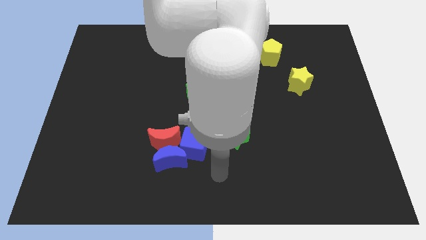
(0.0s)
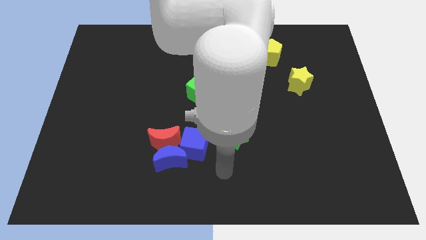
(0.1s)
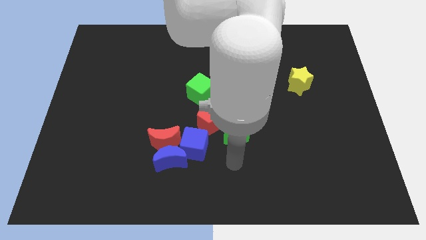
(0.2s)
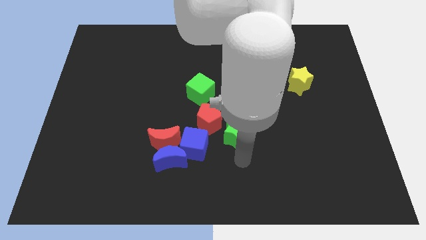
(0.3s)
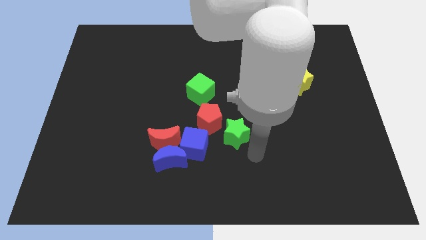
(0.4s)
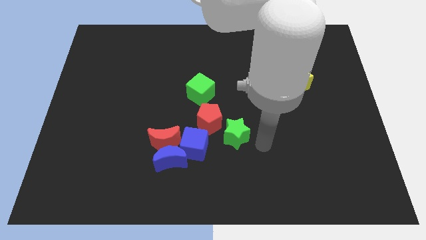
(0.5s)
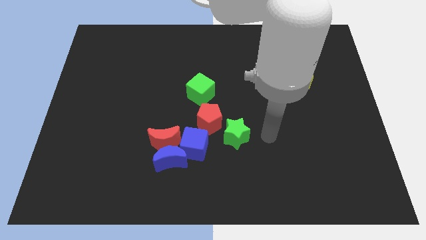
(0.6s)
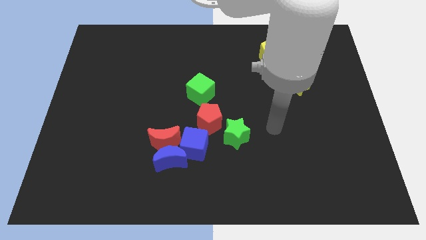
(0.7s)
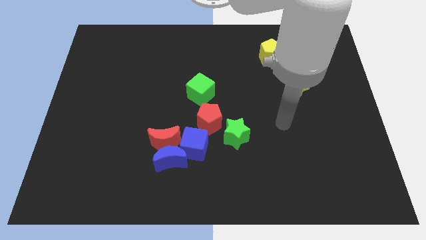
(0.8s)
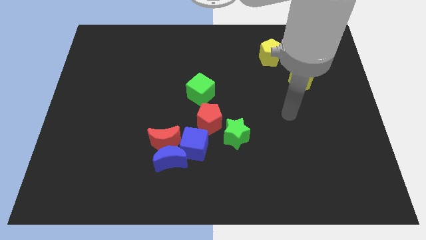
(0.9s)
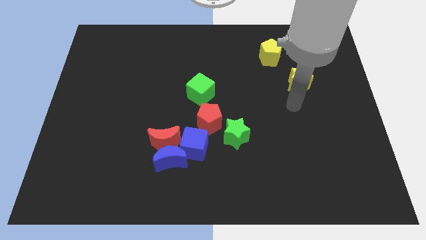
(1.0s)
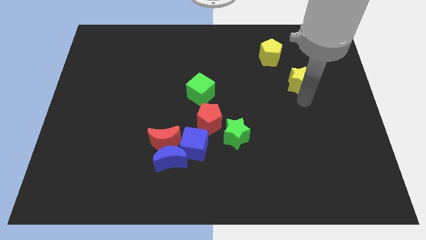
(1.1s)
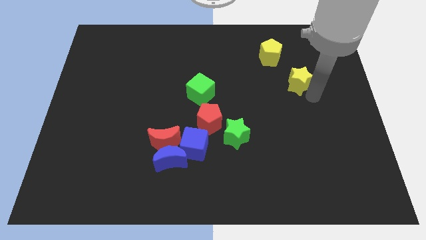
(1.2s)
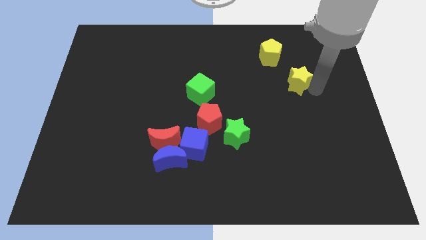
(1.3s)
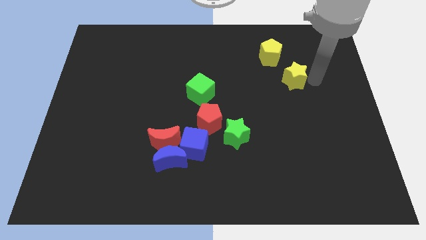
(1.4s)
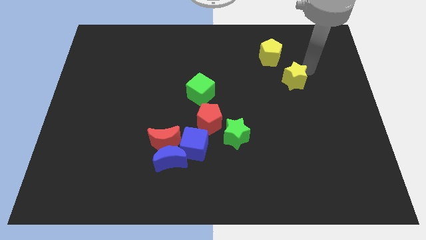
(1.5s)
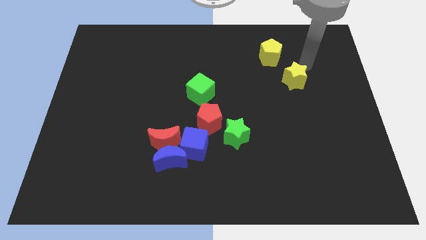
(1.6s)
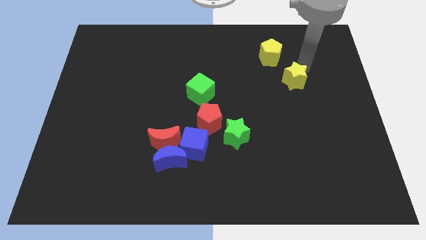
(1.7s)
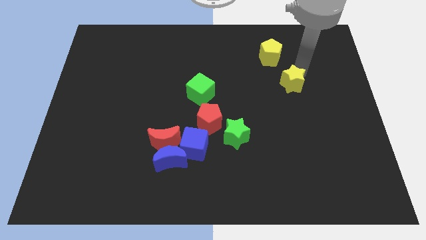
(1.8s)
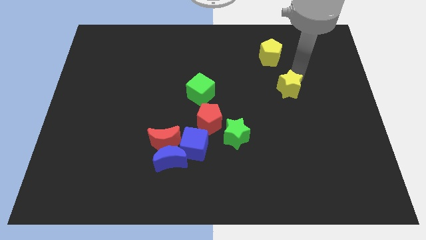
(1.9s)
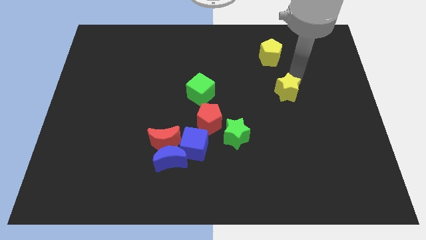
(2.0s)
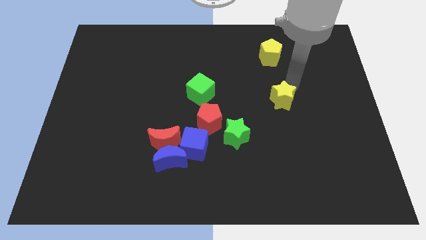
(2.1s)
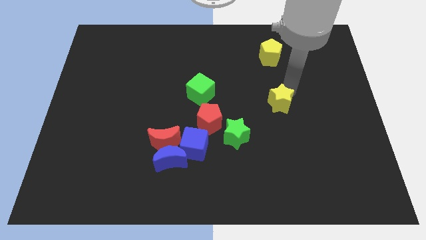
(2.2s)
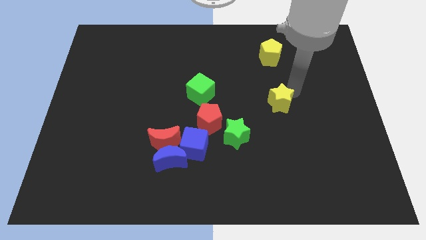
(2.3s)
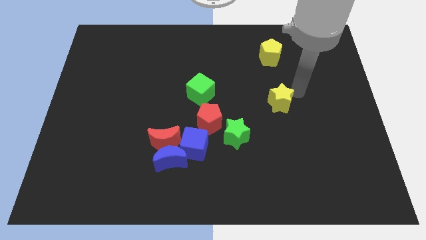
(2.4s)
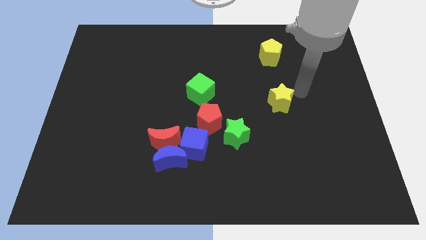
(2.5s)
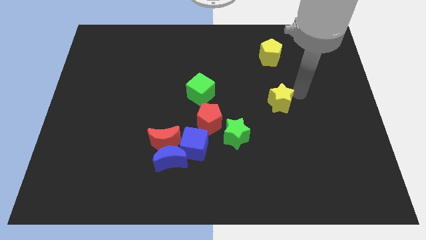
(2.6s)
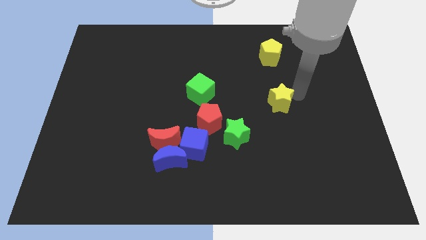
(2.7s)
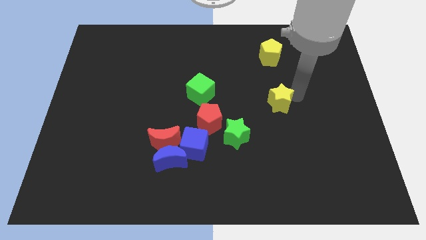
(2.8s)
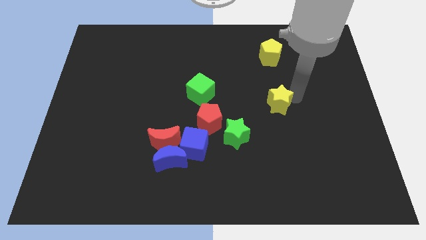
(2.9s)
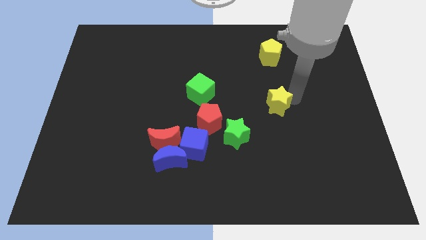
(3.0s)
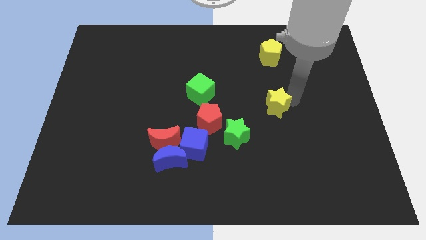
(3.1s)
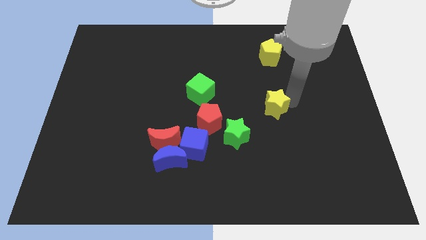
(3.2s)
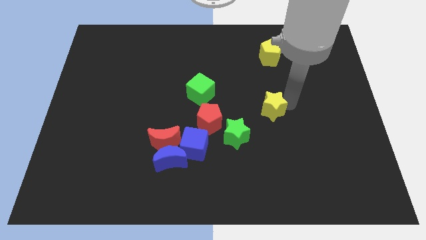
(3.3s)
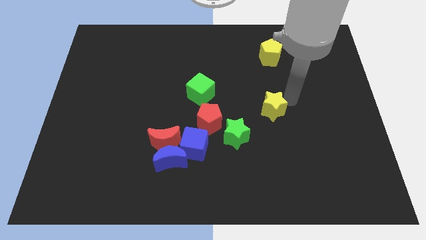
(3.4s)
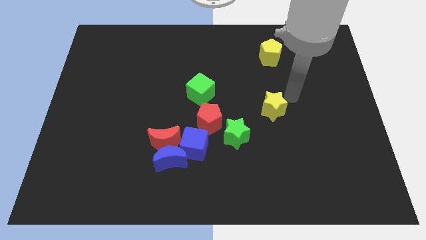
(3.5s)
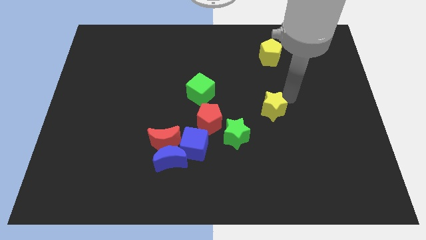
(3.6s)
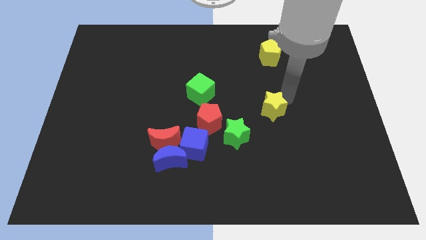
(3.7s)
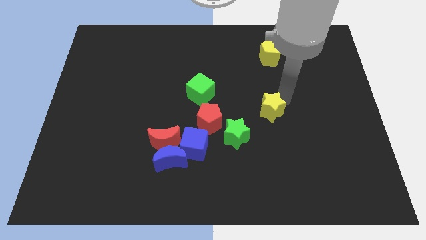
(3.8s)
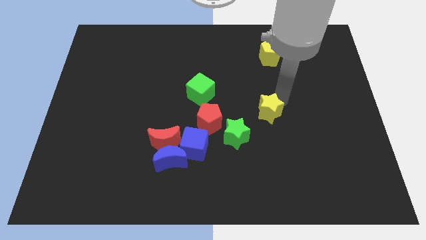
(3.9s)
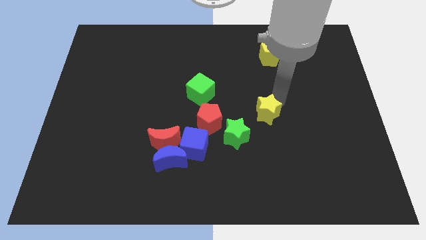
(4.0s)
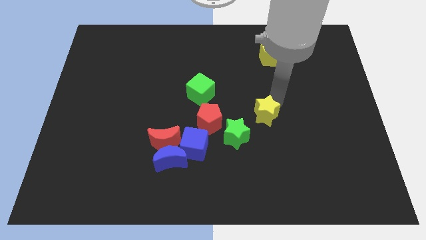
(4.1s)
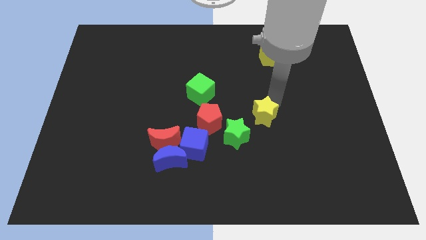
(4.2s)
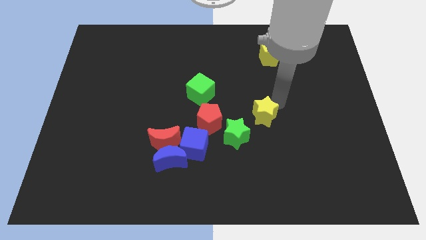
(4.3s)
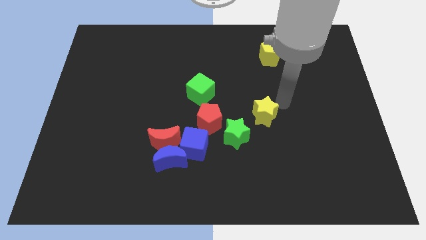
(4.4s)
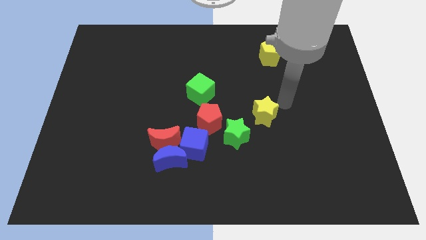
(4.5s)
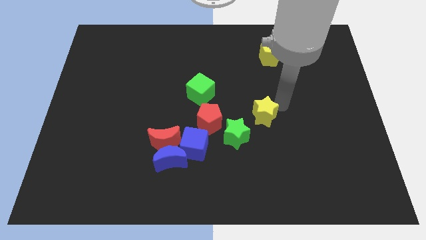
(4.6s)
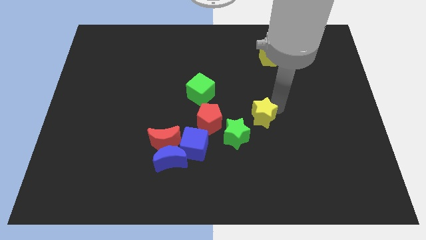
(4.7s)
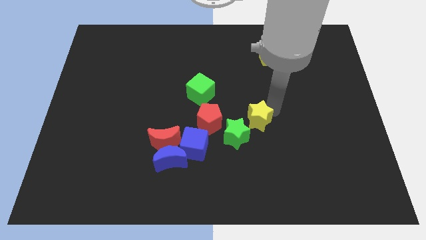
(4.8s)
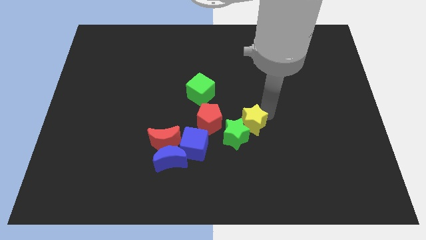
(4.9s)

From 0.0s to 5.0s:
push the yellow star to the green star

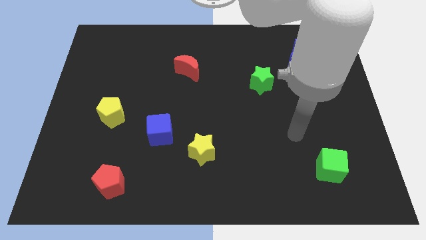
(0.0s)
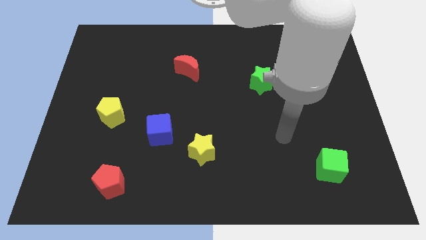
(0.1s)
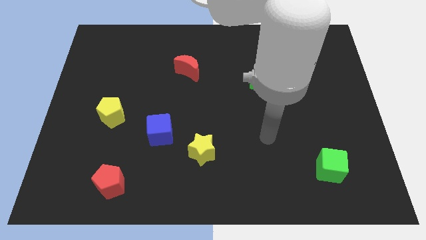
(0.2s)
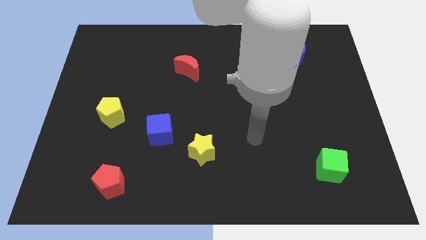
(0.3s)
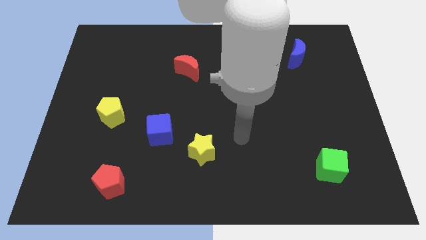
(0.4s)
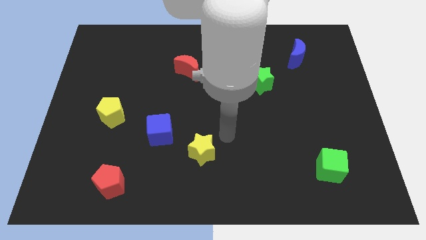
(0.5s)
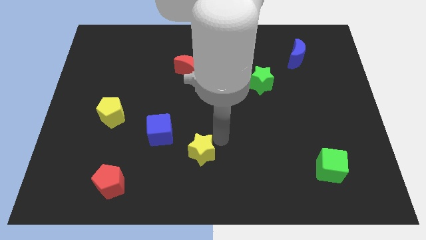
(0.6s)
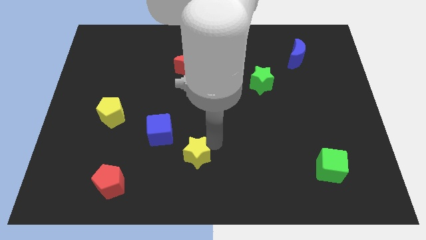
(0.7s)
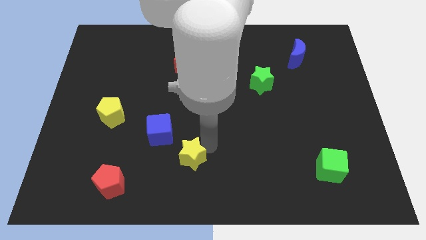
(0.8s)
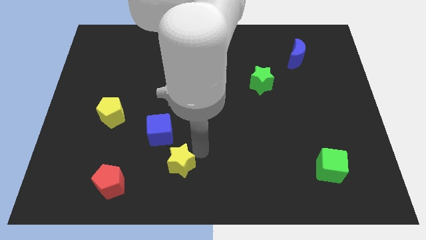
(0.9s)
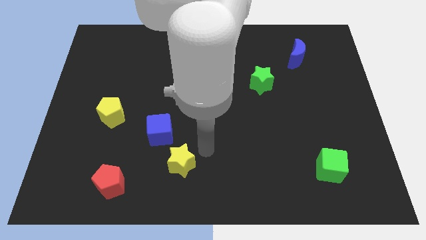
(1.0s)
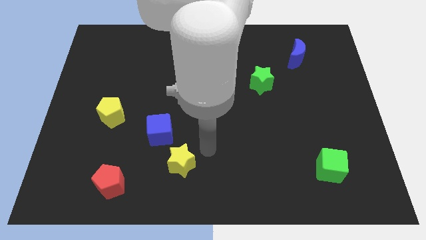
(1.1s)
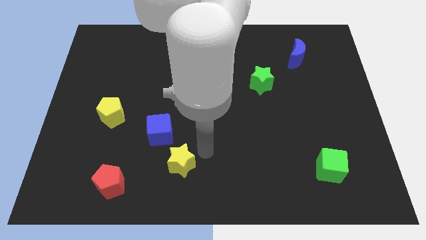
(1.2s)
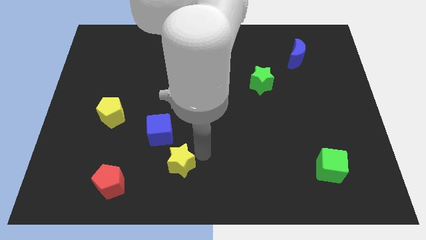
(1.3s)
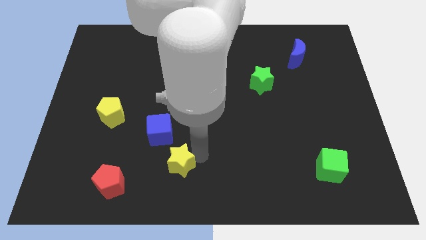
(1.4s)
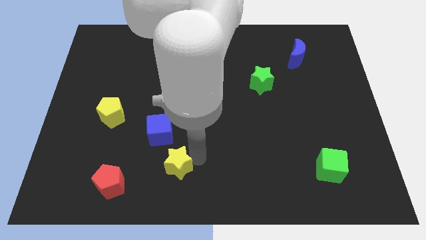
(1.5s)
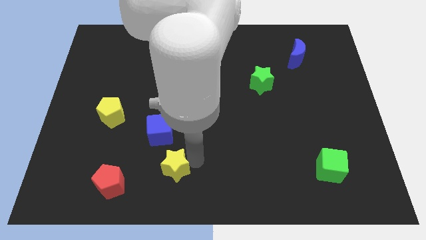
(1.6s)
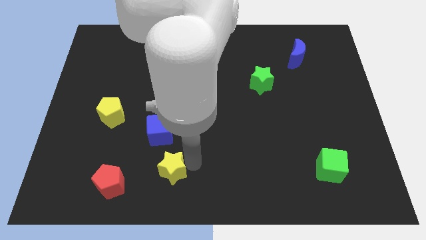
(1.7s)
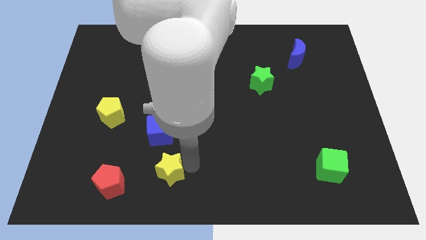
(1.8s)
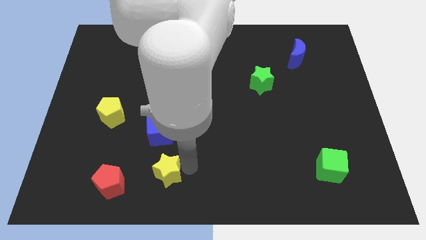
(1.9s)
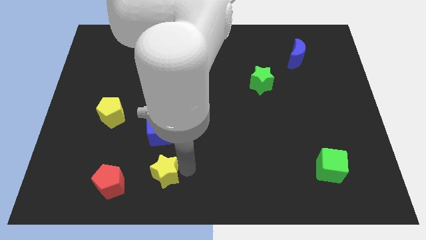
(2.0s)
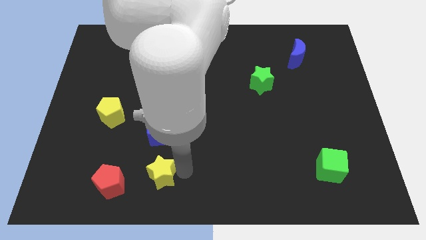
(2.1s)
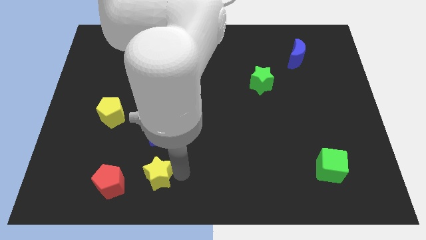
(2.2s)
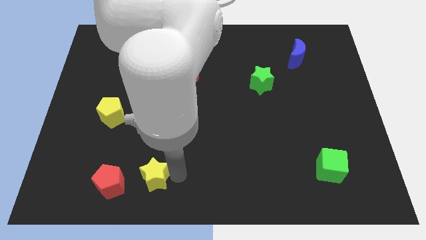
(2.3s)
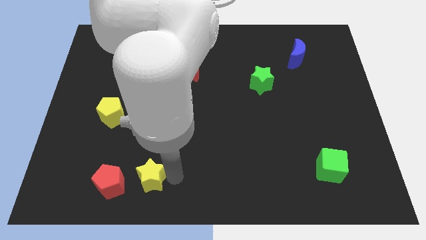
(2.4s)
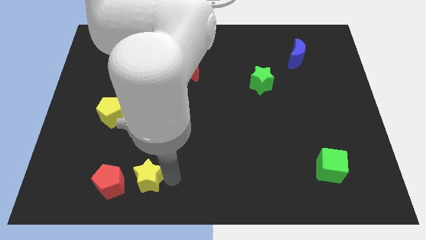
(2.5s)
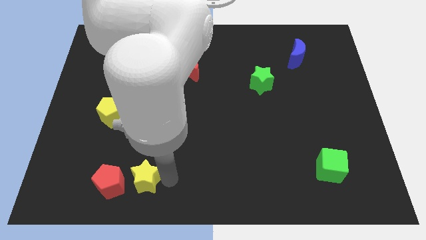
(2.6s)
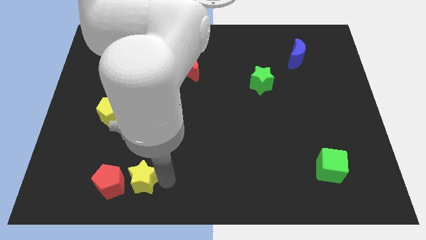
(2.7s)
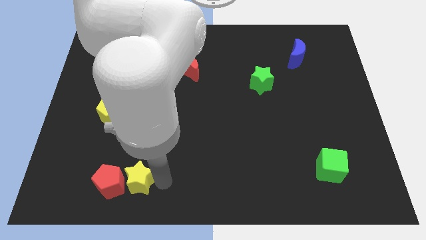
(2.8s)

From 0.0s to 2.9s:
move the yellow star next to the red pentagon

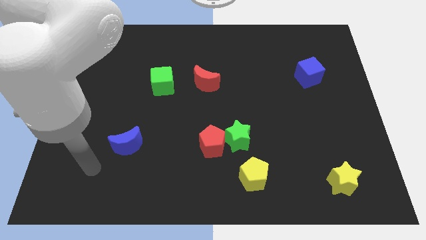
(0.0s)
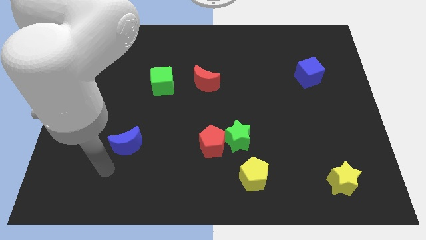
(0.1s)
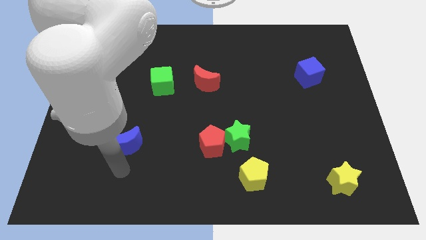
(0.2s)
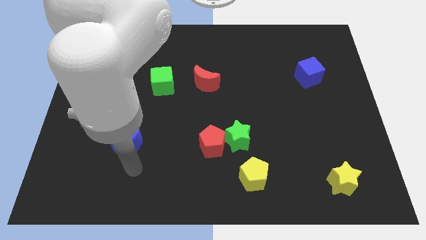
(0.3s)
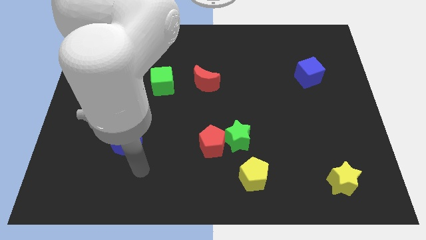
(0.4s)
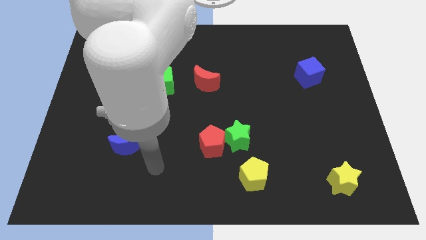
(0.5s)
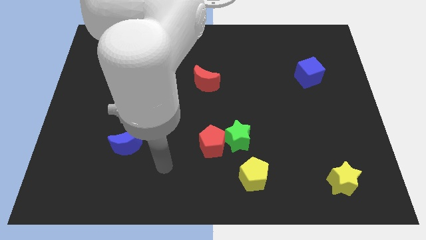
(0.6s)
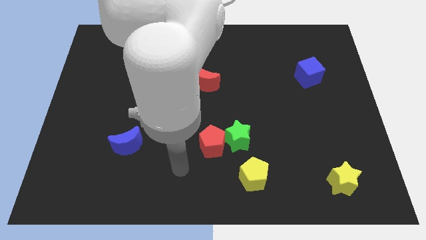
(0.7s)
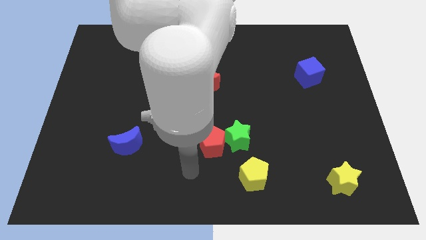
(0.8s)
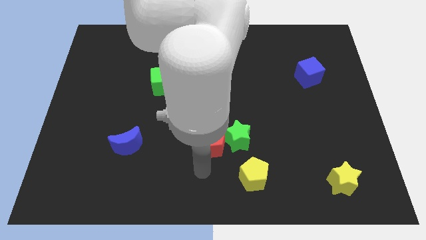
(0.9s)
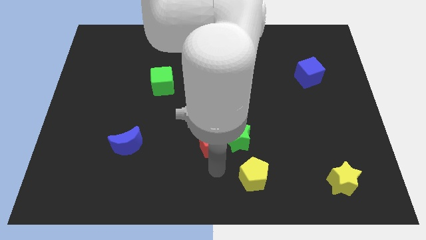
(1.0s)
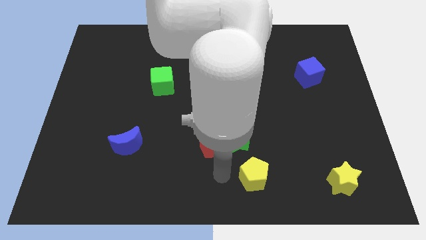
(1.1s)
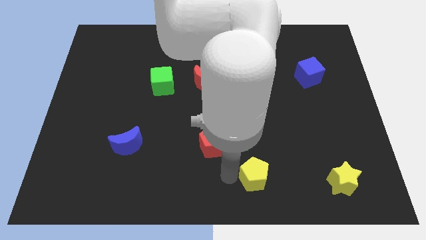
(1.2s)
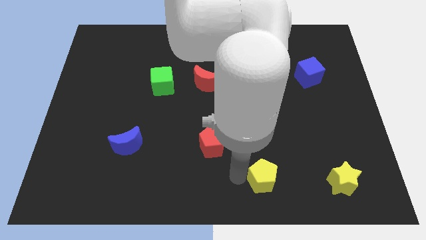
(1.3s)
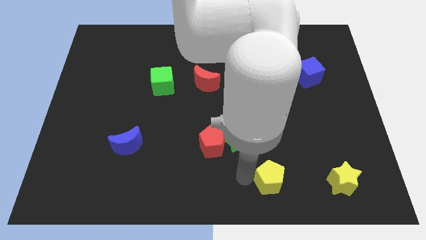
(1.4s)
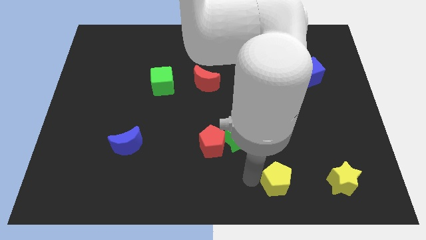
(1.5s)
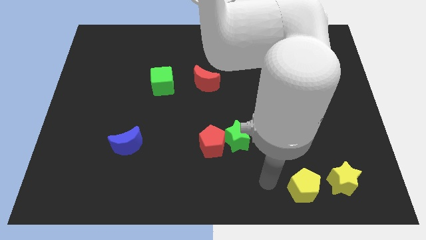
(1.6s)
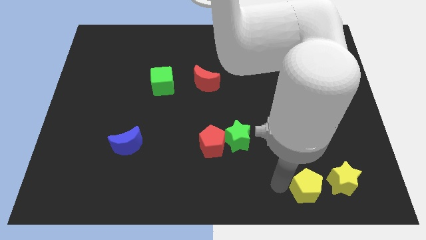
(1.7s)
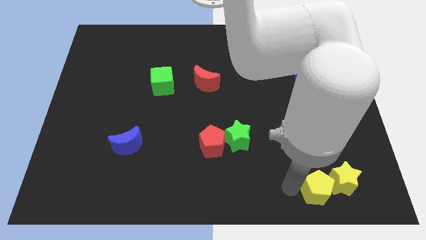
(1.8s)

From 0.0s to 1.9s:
slide the yellow pentagon towards the yellow star
